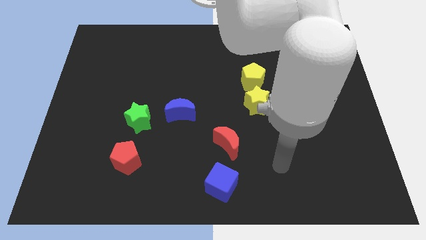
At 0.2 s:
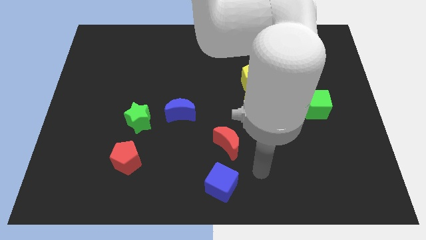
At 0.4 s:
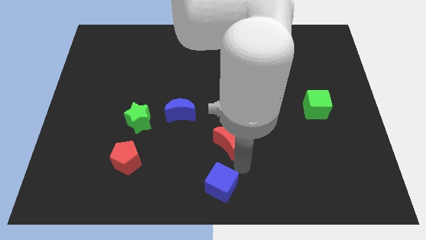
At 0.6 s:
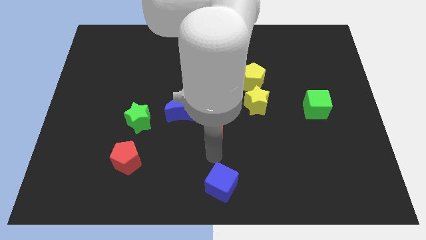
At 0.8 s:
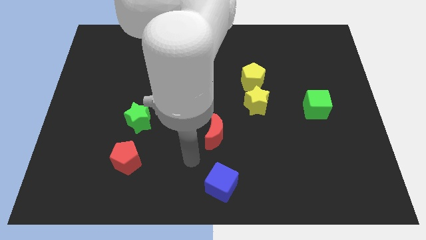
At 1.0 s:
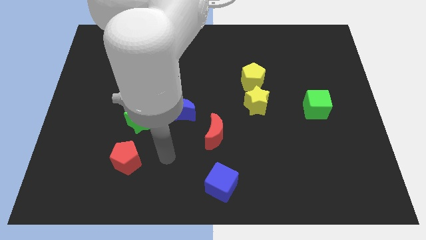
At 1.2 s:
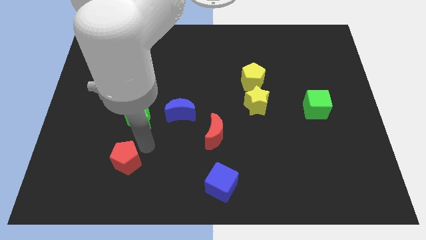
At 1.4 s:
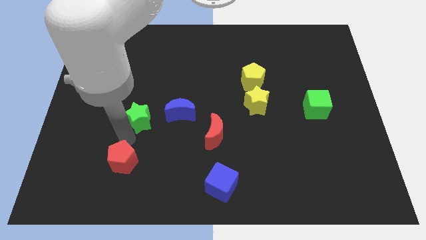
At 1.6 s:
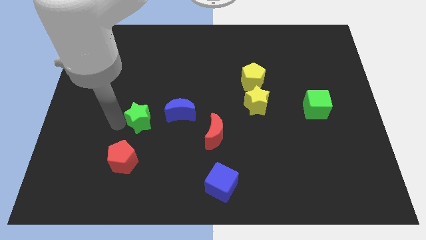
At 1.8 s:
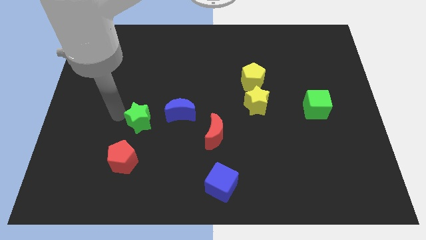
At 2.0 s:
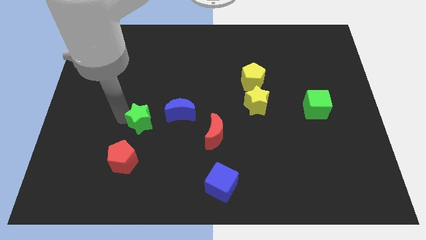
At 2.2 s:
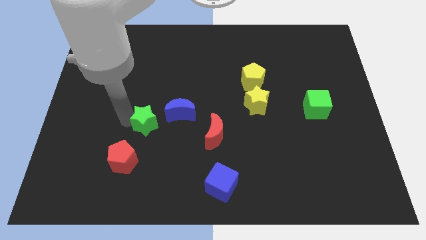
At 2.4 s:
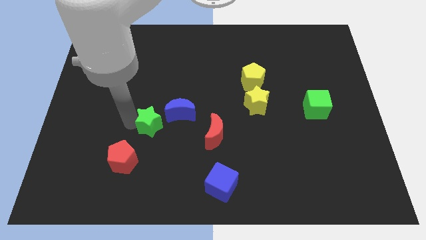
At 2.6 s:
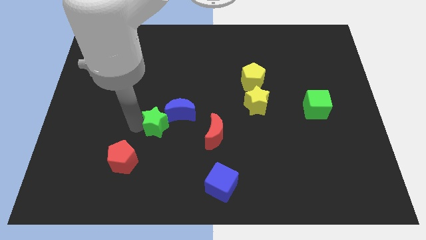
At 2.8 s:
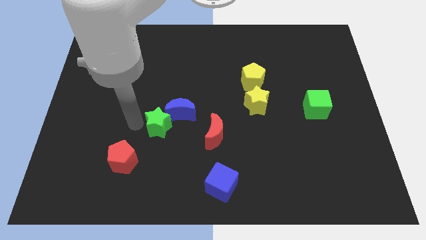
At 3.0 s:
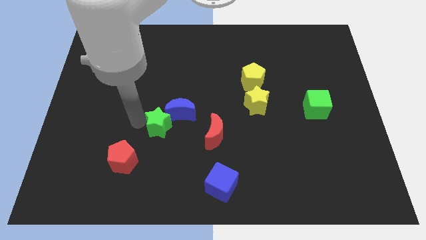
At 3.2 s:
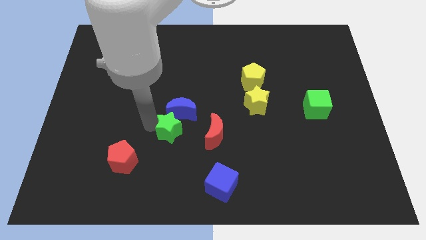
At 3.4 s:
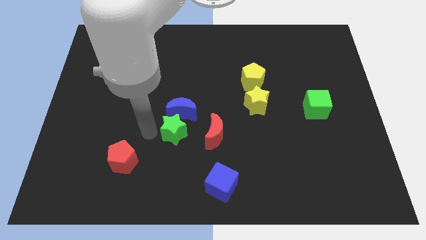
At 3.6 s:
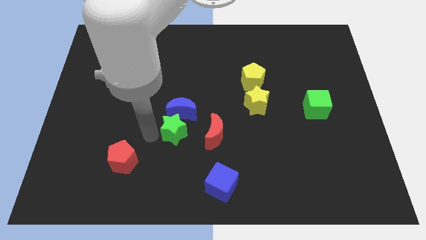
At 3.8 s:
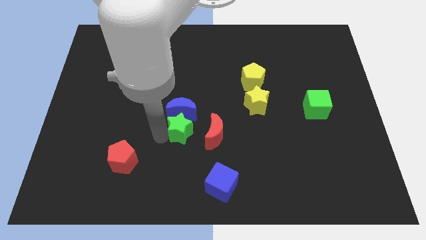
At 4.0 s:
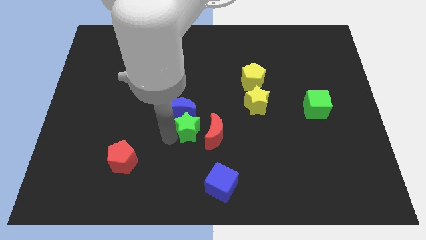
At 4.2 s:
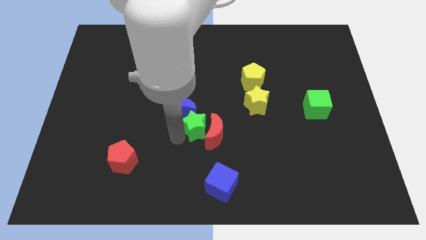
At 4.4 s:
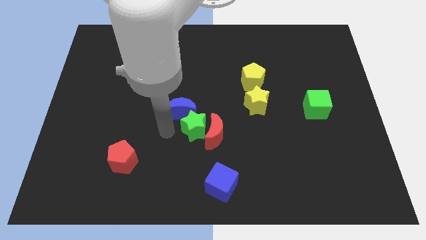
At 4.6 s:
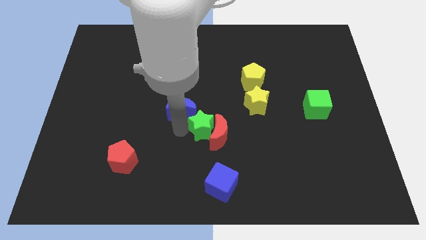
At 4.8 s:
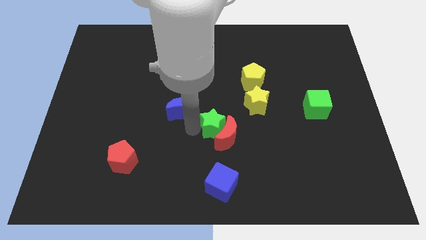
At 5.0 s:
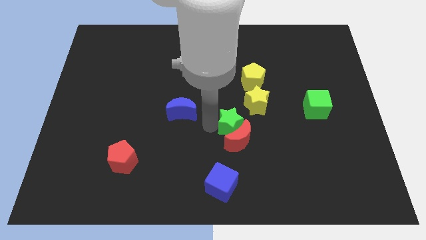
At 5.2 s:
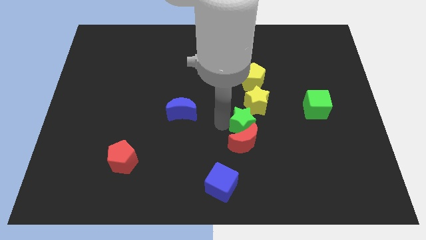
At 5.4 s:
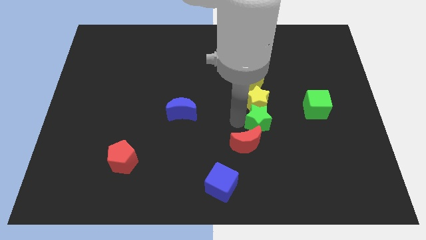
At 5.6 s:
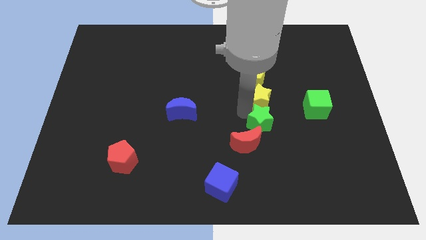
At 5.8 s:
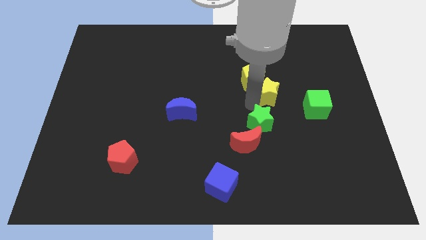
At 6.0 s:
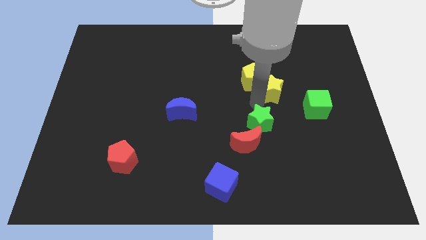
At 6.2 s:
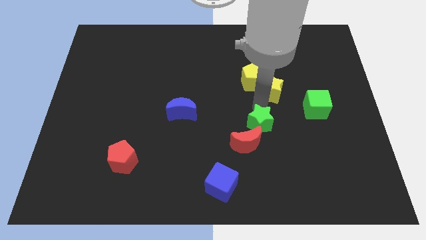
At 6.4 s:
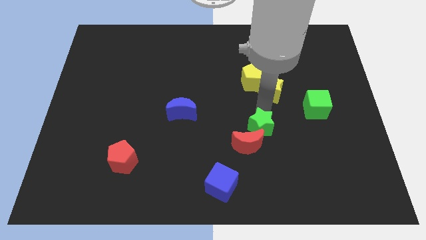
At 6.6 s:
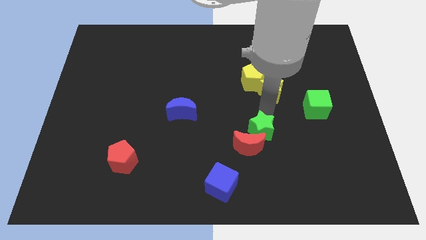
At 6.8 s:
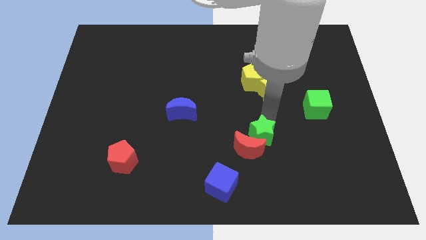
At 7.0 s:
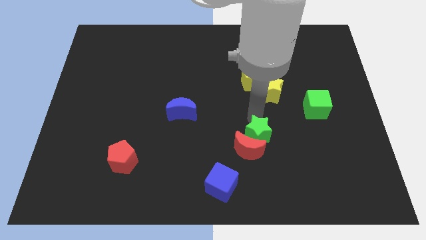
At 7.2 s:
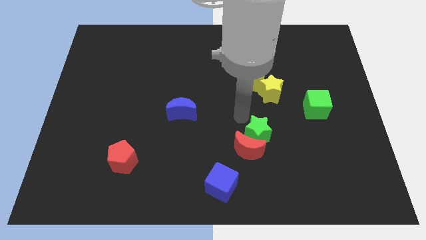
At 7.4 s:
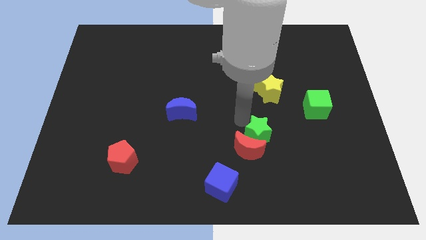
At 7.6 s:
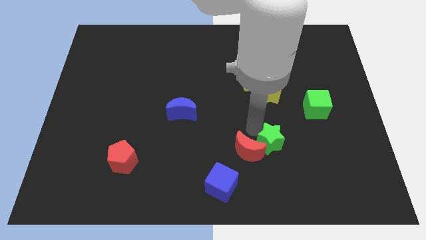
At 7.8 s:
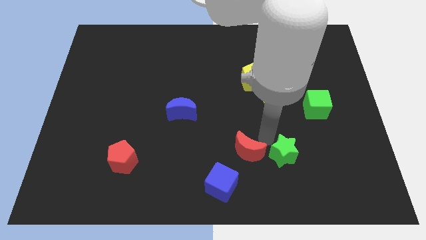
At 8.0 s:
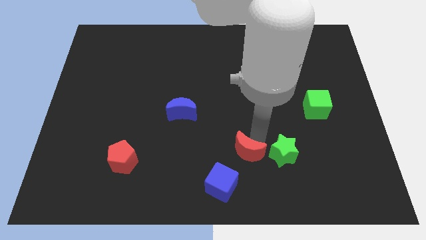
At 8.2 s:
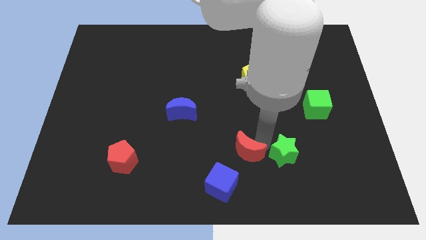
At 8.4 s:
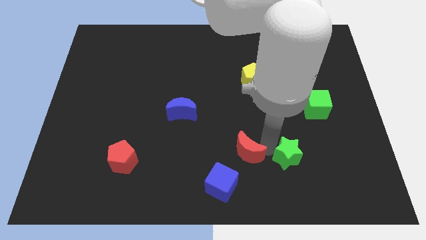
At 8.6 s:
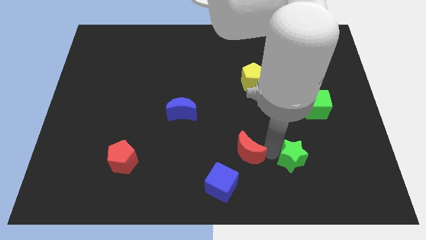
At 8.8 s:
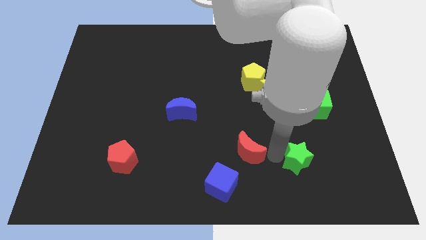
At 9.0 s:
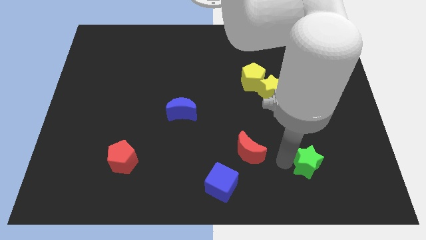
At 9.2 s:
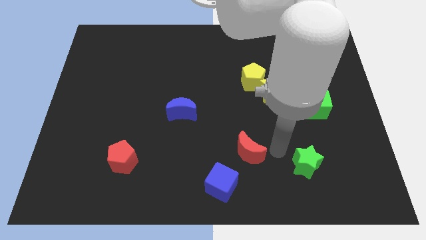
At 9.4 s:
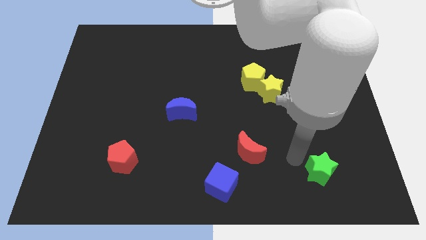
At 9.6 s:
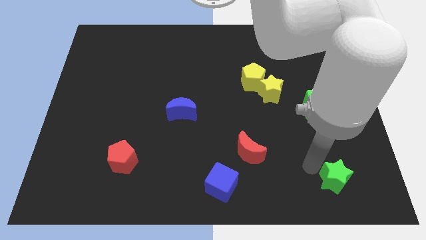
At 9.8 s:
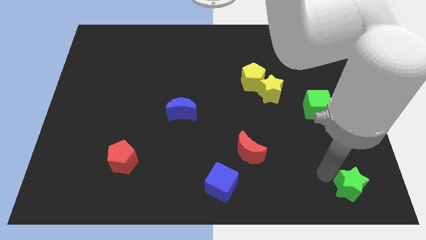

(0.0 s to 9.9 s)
move the green star to the bottom right of the board

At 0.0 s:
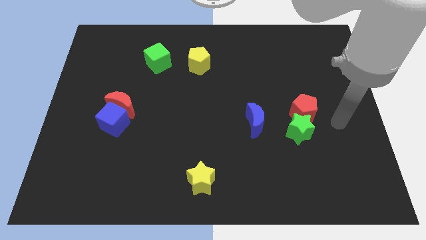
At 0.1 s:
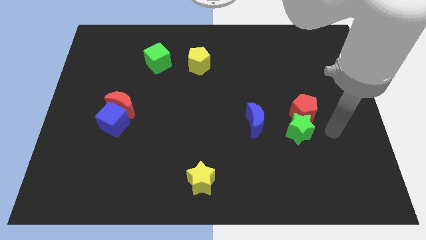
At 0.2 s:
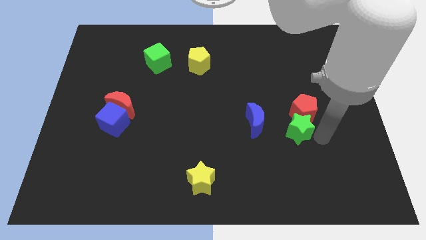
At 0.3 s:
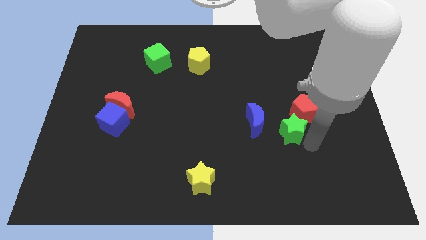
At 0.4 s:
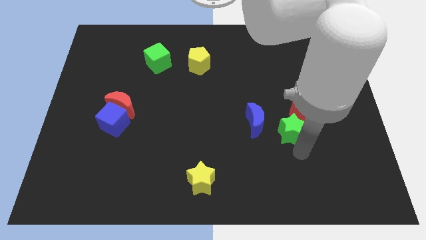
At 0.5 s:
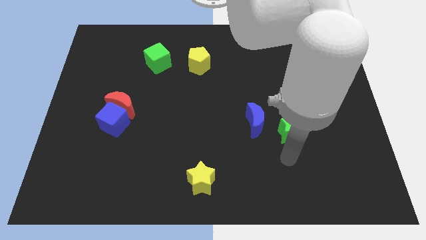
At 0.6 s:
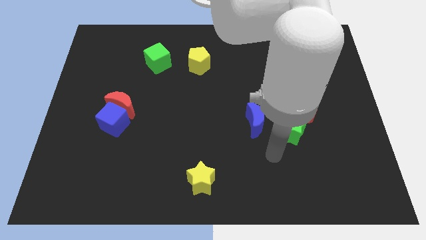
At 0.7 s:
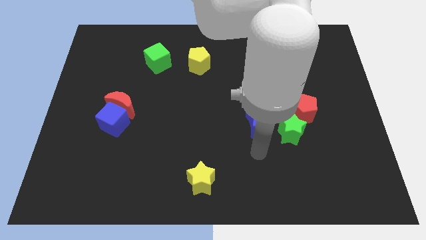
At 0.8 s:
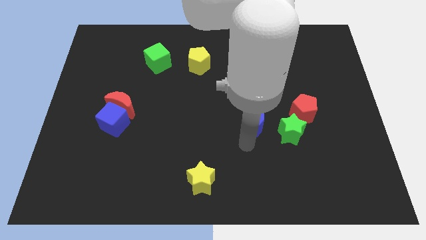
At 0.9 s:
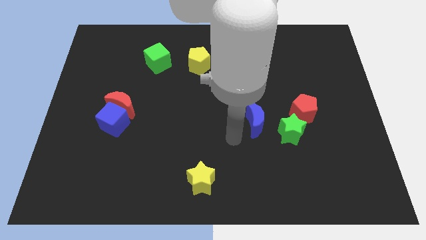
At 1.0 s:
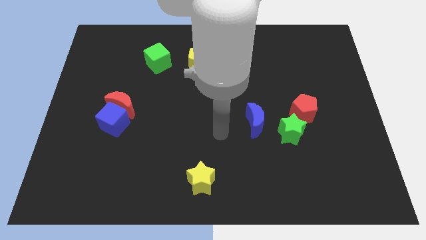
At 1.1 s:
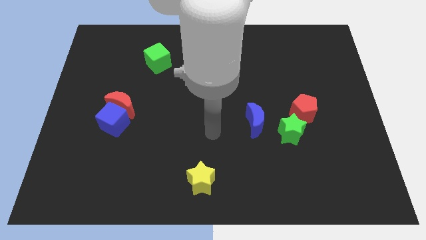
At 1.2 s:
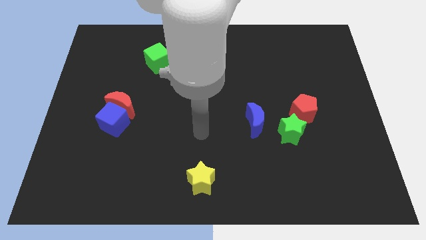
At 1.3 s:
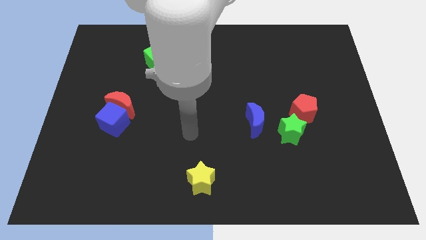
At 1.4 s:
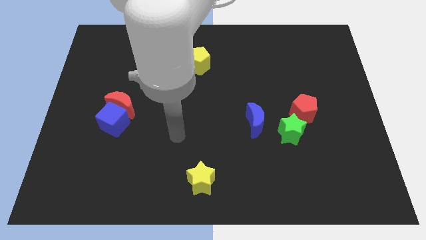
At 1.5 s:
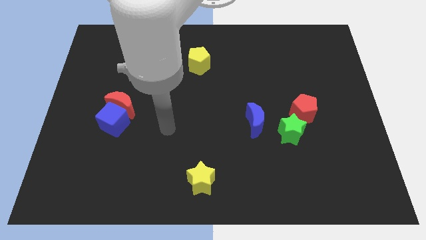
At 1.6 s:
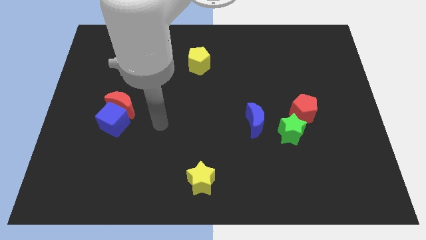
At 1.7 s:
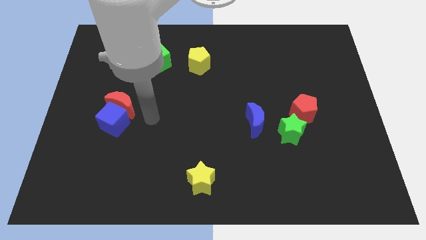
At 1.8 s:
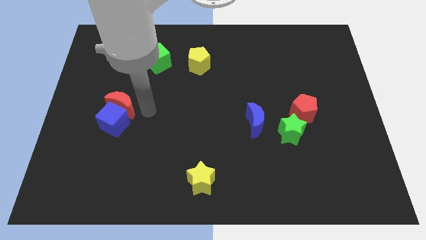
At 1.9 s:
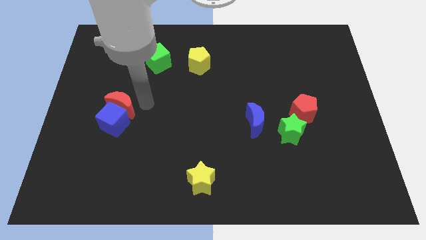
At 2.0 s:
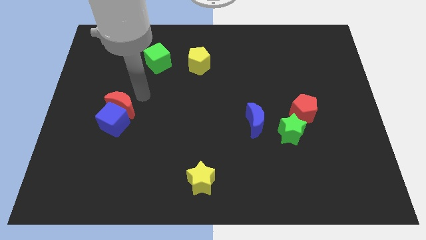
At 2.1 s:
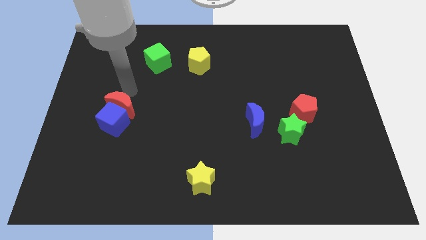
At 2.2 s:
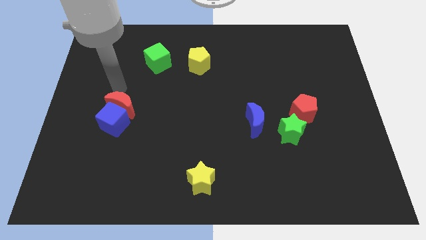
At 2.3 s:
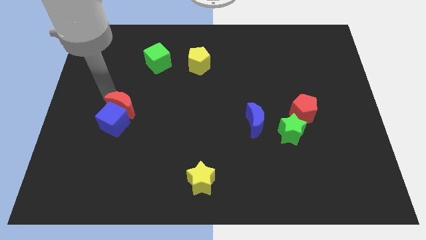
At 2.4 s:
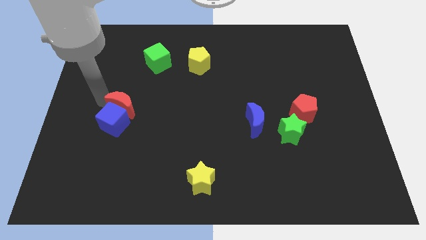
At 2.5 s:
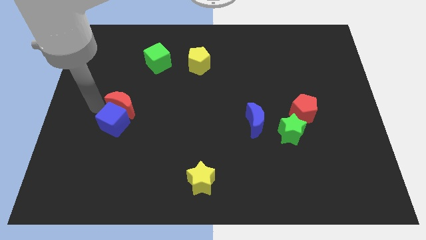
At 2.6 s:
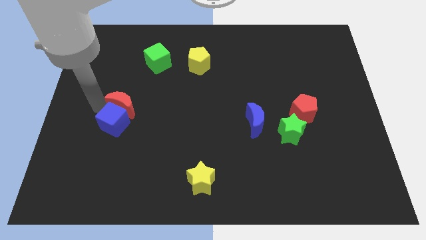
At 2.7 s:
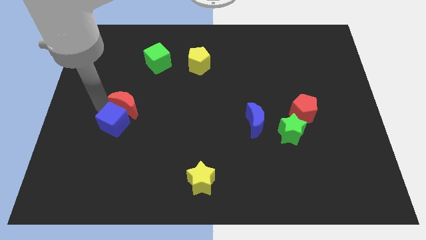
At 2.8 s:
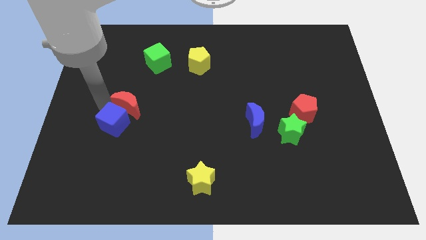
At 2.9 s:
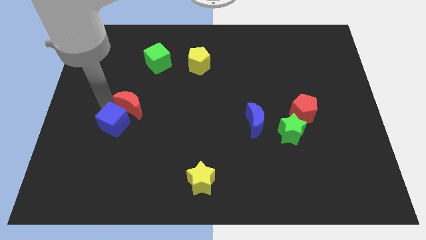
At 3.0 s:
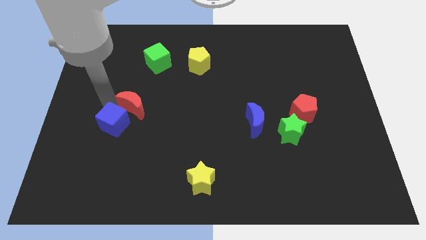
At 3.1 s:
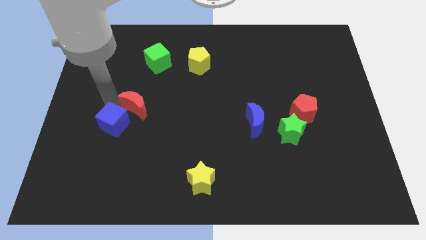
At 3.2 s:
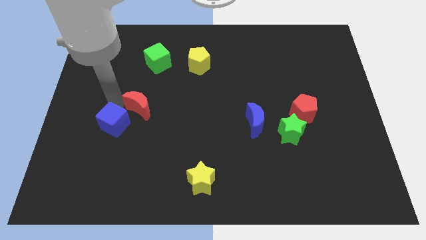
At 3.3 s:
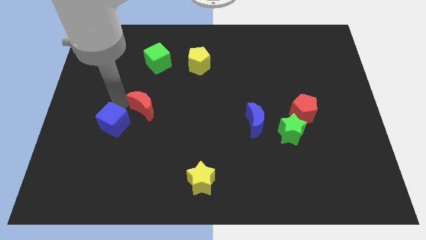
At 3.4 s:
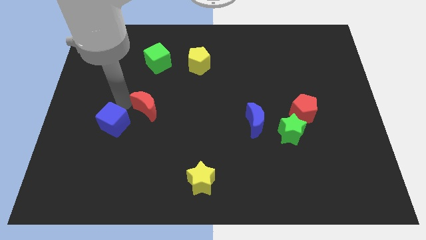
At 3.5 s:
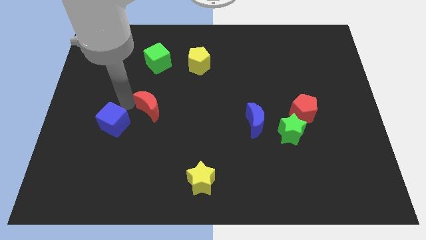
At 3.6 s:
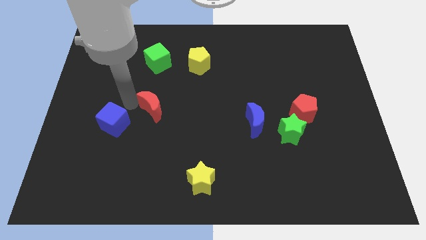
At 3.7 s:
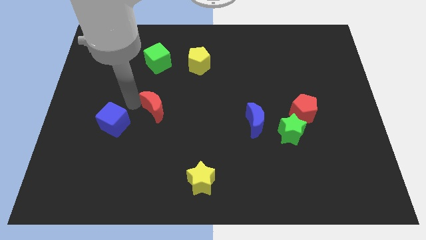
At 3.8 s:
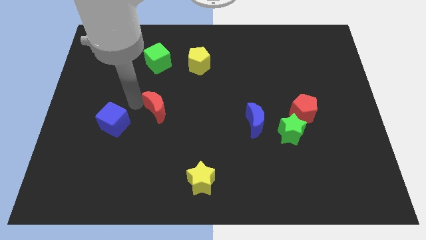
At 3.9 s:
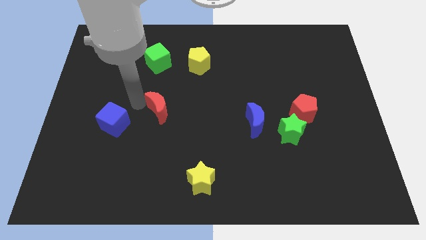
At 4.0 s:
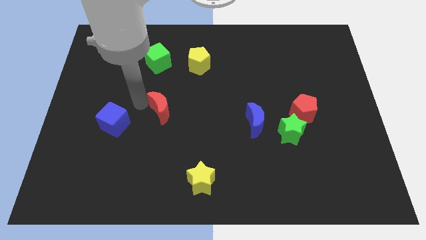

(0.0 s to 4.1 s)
move the red moon to the center
